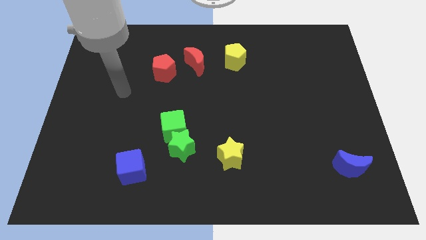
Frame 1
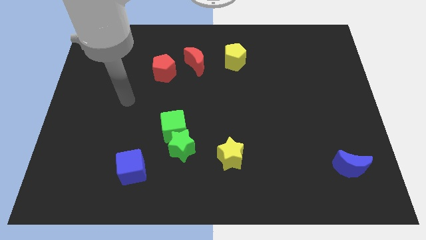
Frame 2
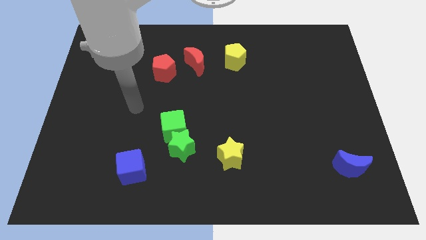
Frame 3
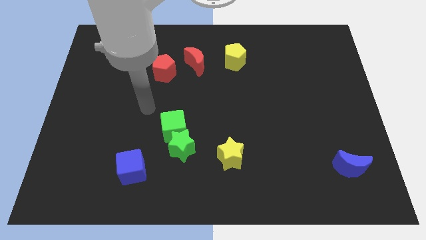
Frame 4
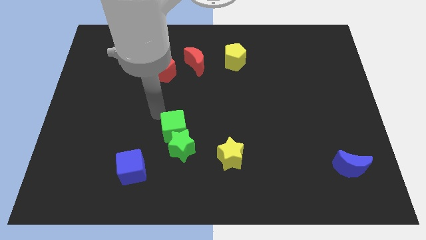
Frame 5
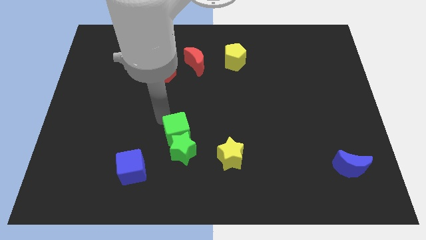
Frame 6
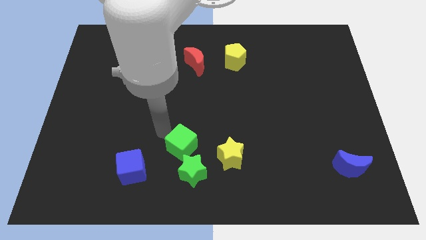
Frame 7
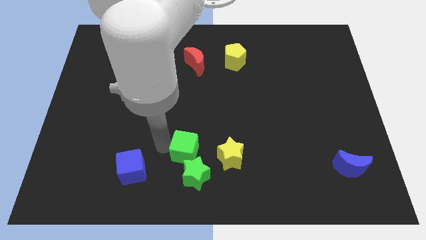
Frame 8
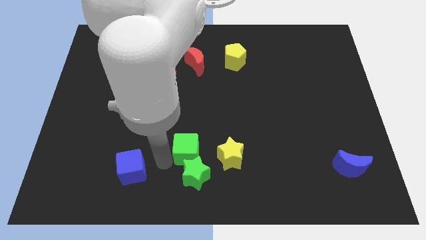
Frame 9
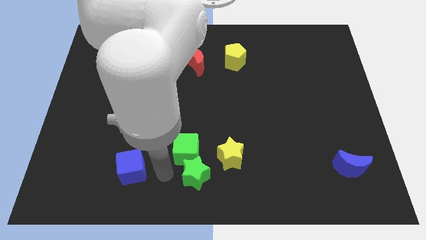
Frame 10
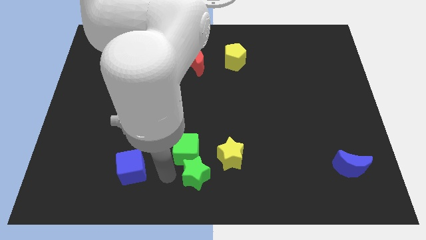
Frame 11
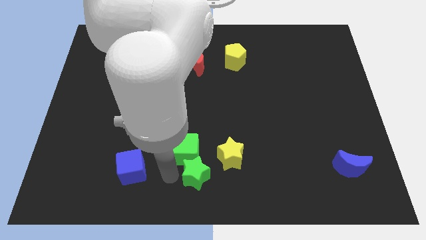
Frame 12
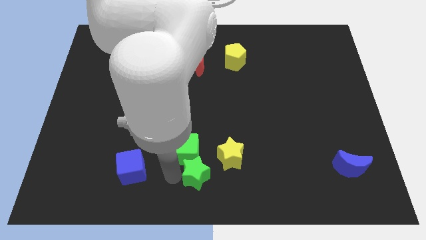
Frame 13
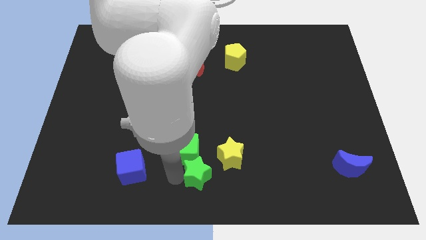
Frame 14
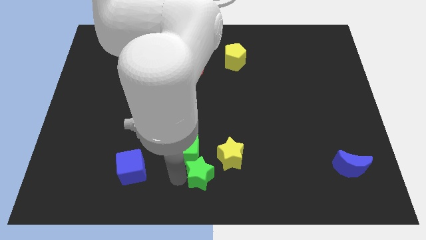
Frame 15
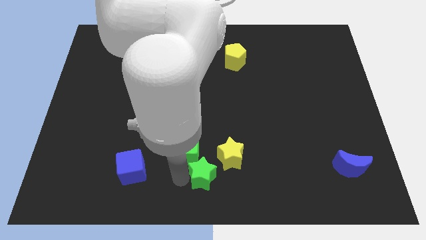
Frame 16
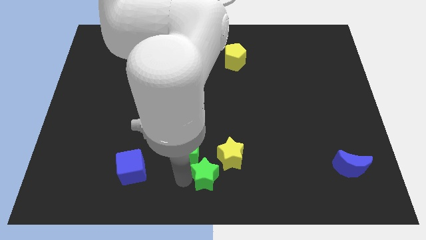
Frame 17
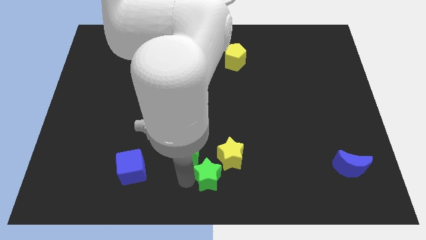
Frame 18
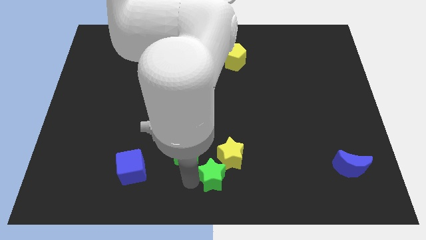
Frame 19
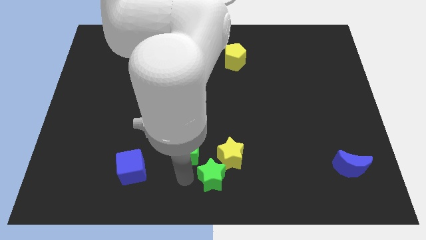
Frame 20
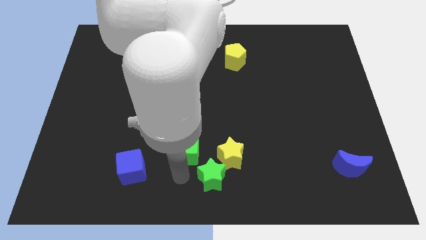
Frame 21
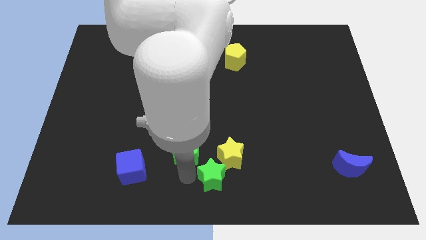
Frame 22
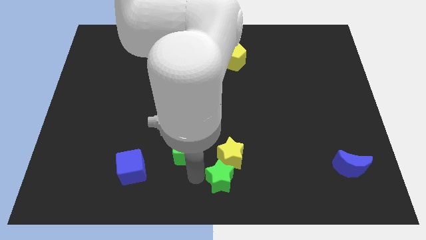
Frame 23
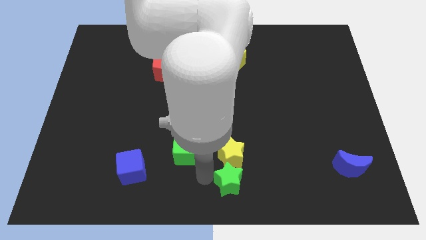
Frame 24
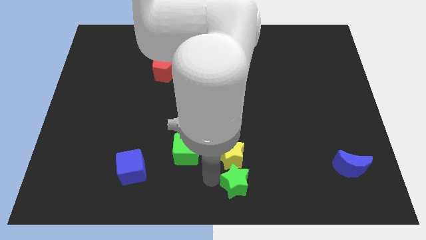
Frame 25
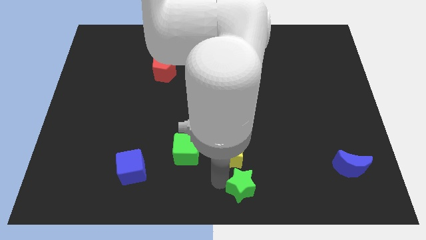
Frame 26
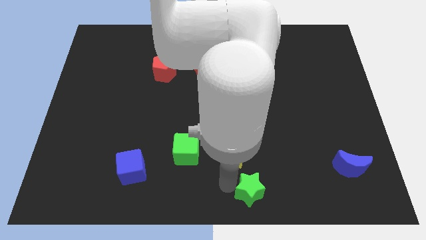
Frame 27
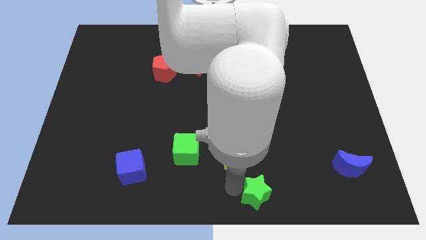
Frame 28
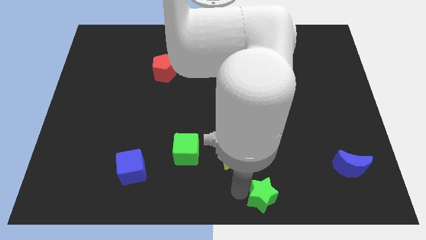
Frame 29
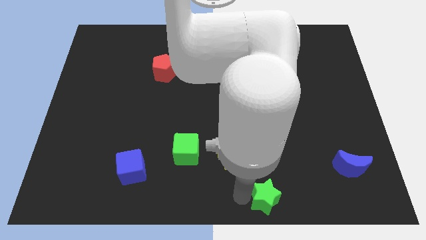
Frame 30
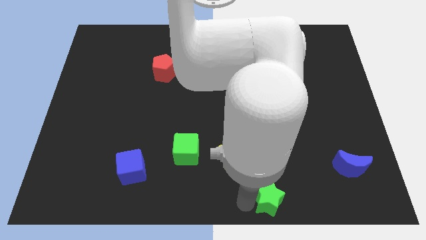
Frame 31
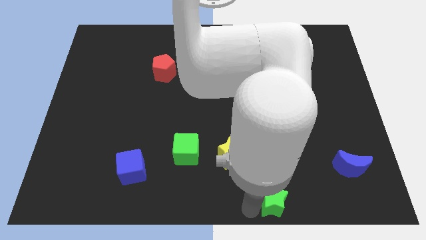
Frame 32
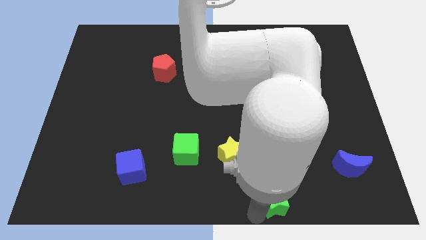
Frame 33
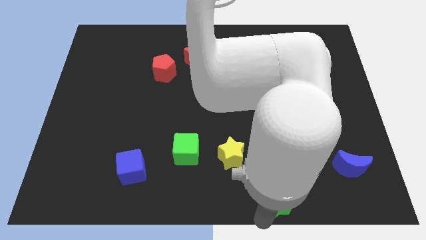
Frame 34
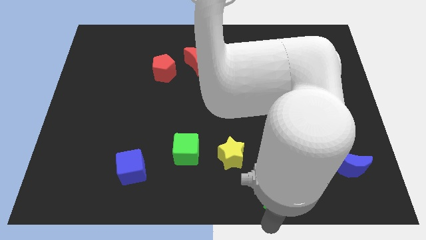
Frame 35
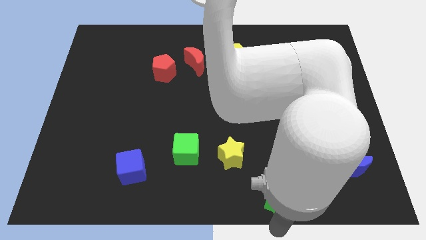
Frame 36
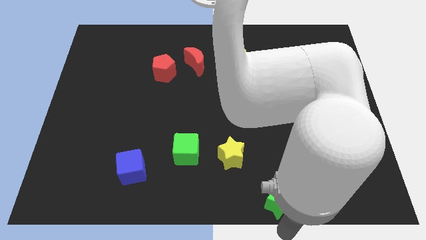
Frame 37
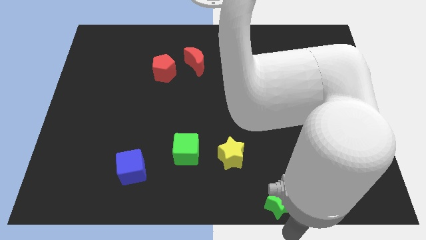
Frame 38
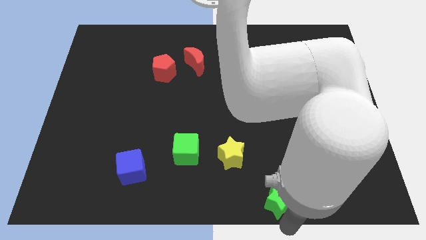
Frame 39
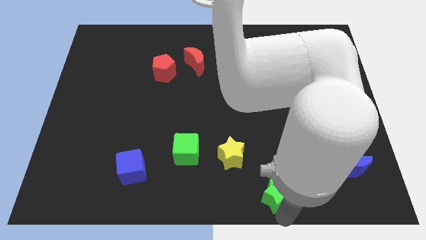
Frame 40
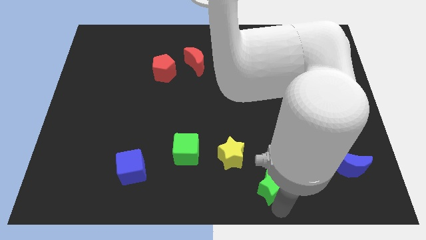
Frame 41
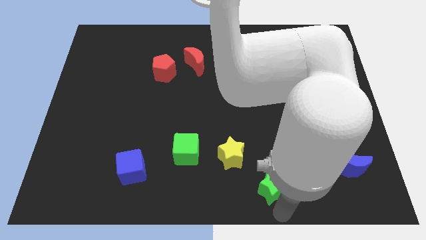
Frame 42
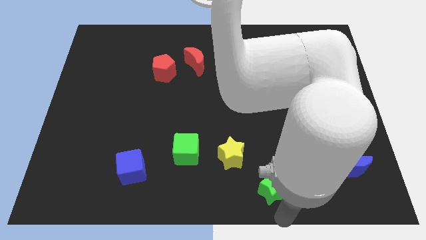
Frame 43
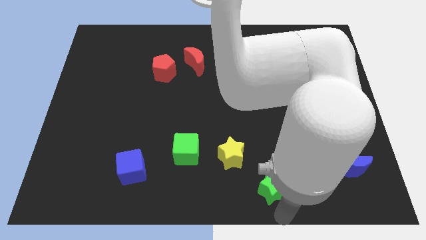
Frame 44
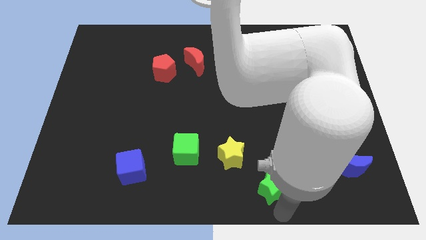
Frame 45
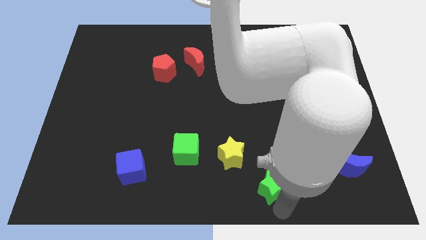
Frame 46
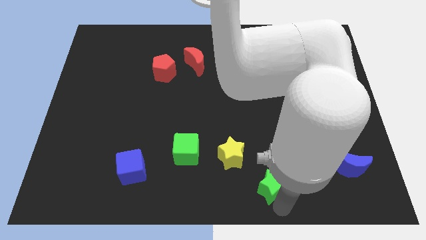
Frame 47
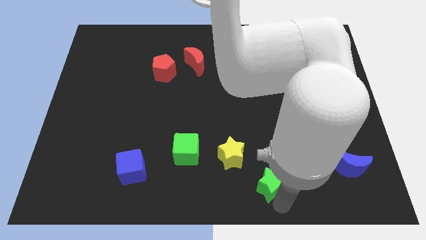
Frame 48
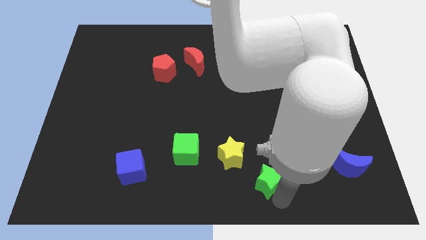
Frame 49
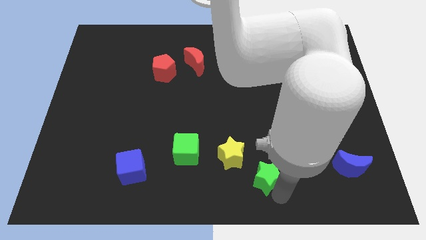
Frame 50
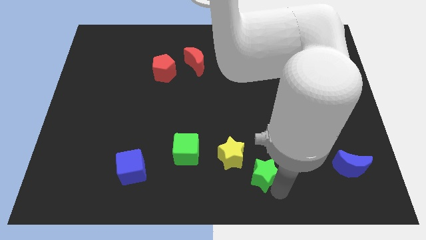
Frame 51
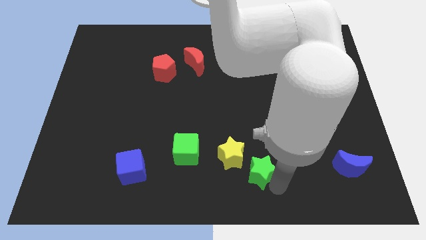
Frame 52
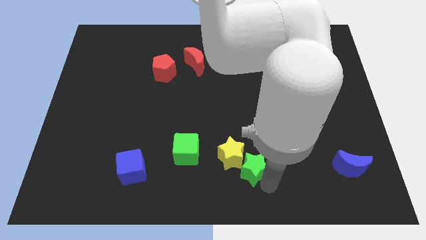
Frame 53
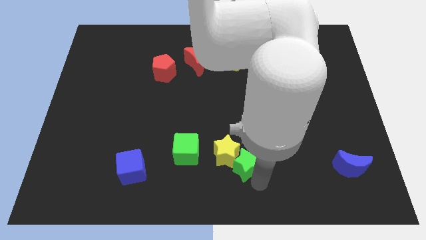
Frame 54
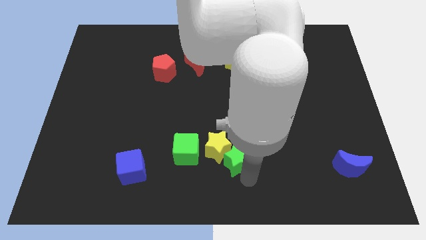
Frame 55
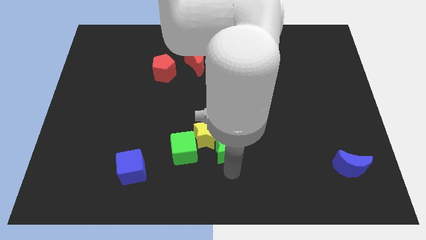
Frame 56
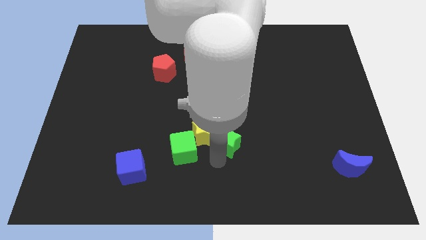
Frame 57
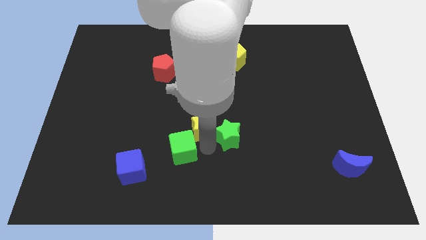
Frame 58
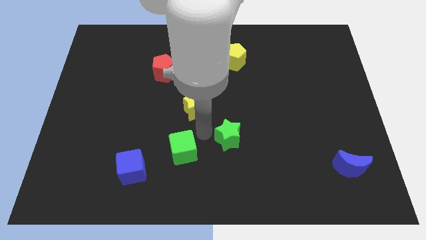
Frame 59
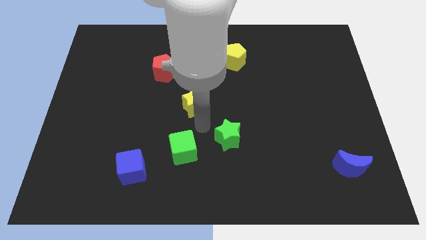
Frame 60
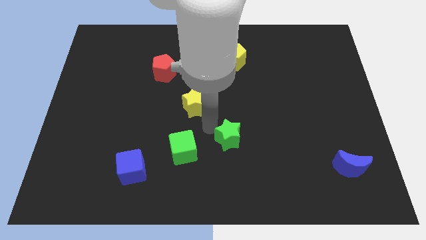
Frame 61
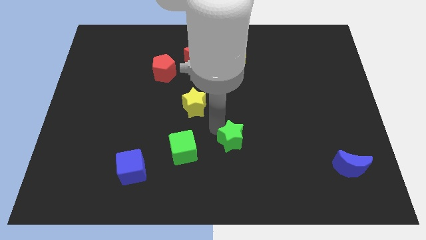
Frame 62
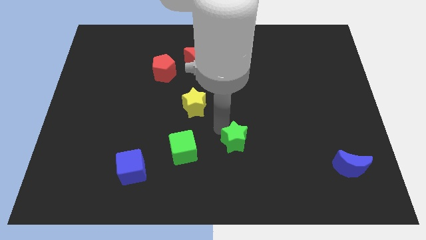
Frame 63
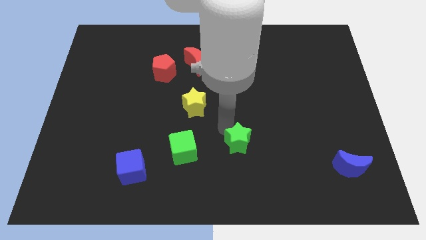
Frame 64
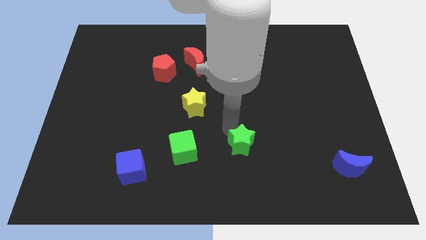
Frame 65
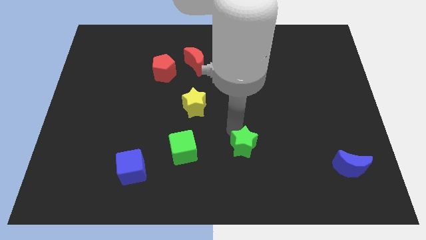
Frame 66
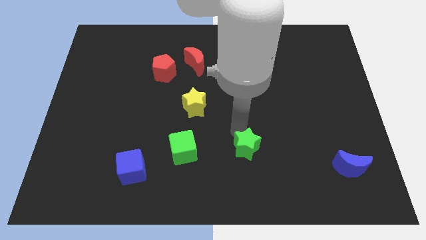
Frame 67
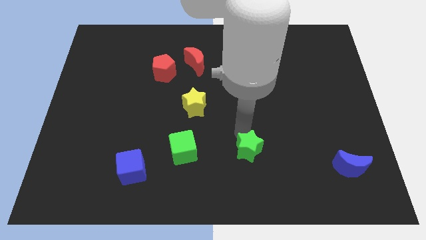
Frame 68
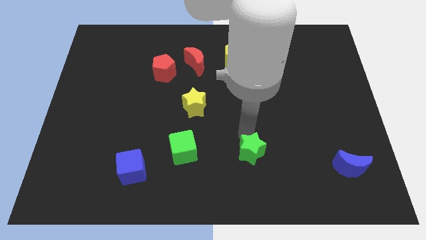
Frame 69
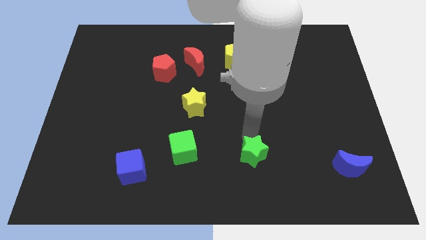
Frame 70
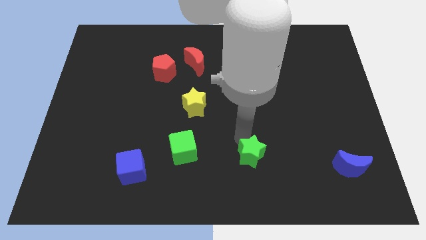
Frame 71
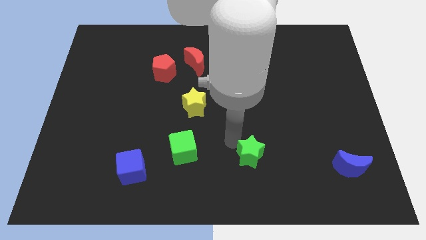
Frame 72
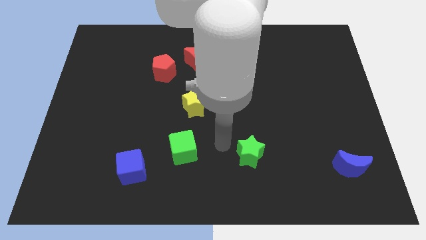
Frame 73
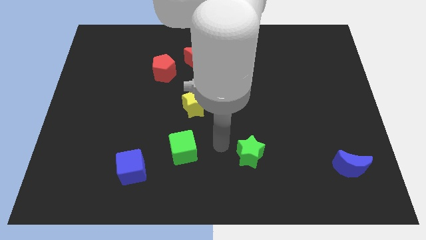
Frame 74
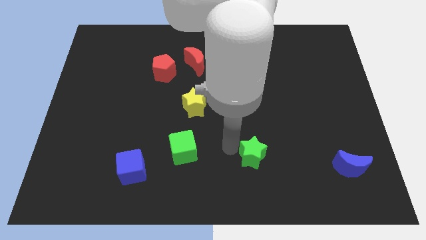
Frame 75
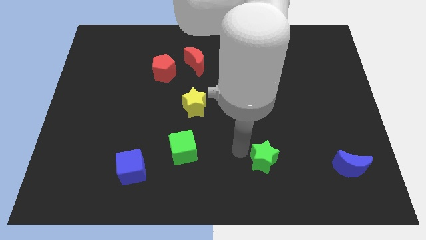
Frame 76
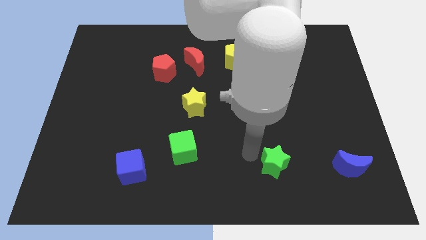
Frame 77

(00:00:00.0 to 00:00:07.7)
push the green star just left of the blue moon
